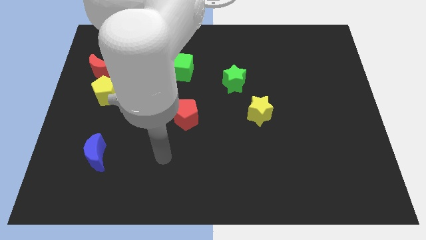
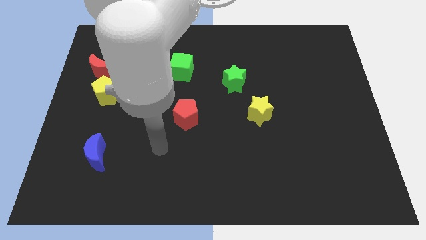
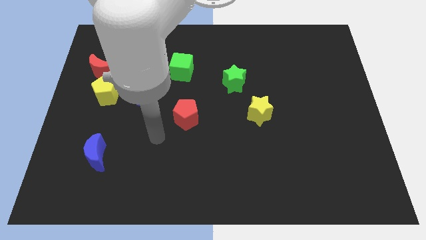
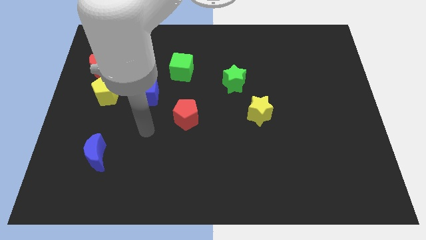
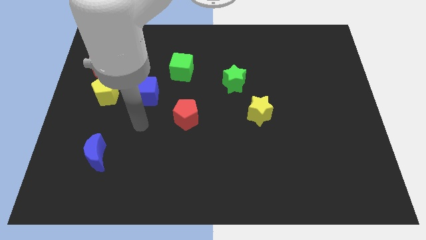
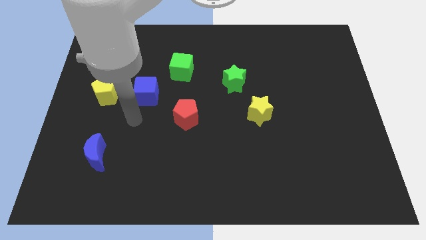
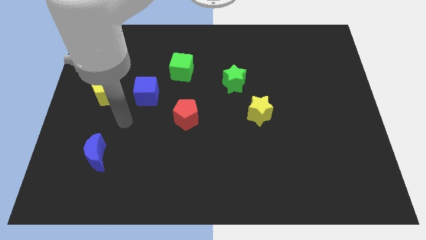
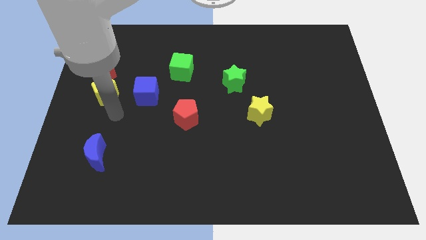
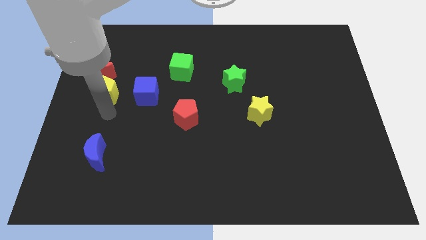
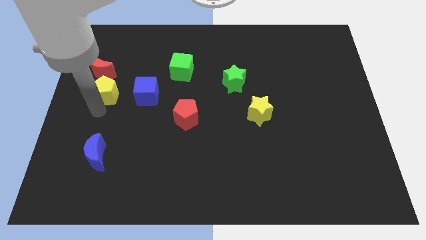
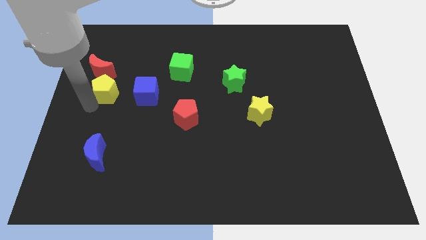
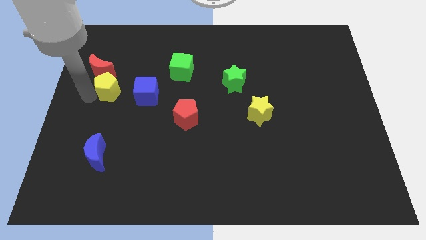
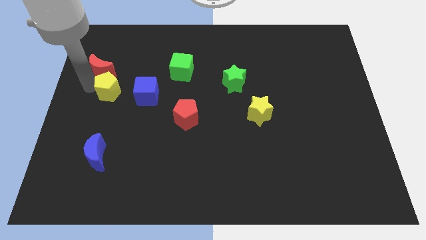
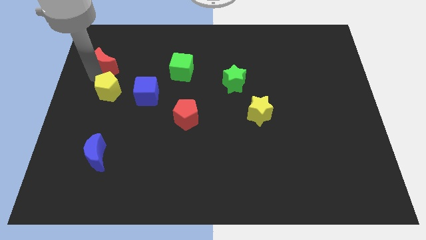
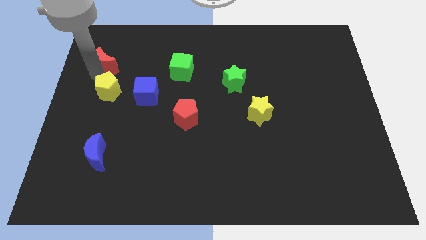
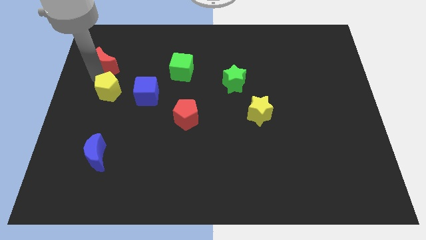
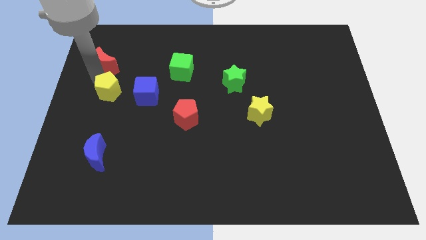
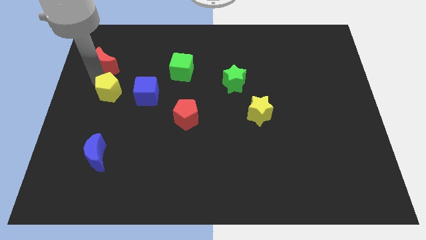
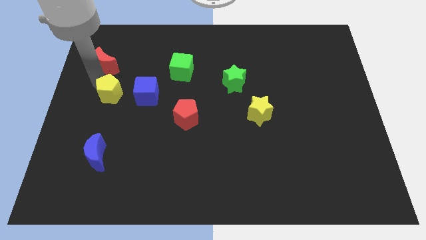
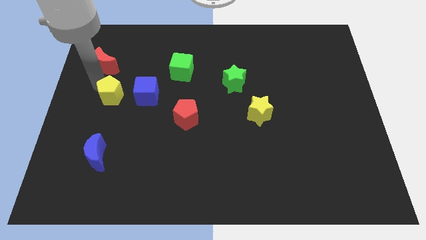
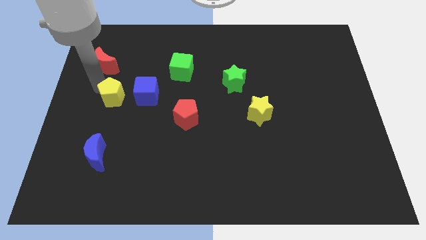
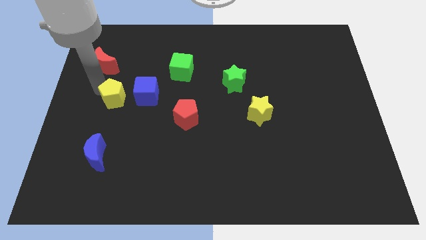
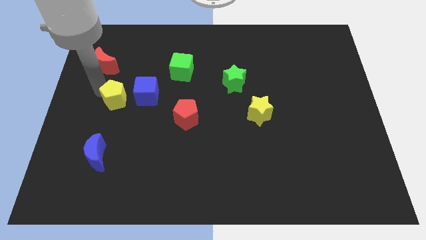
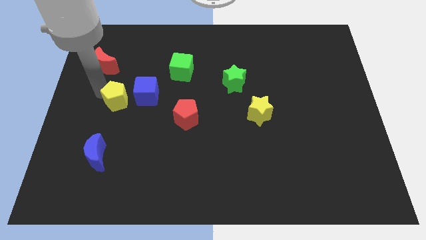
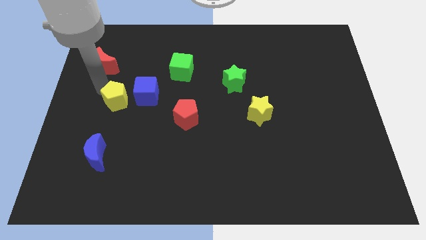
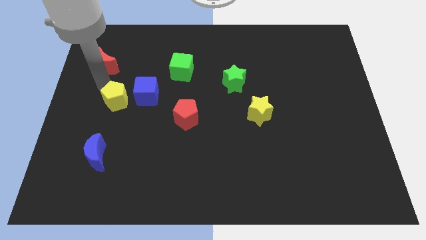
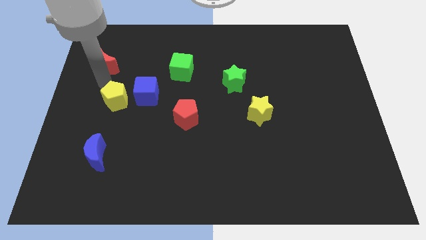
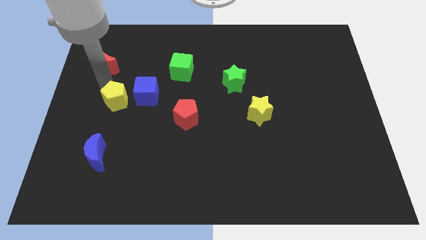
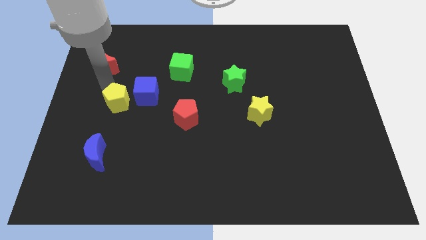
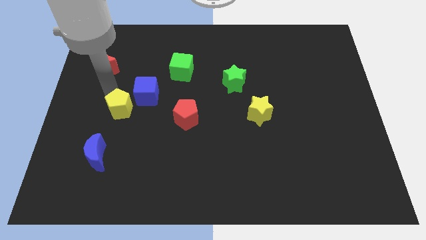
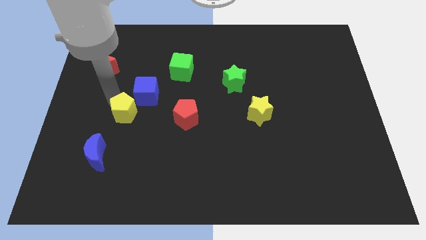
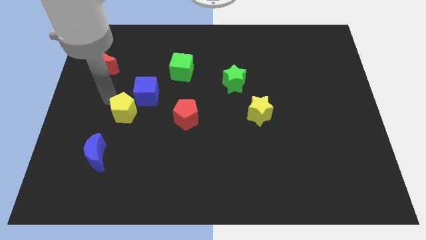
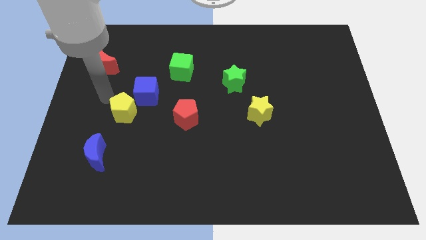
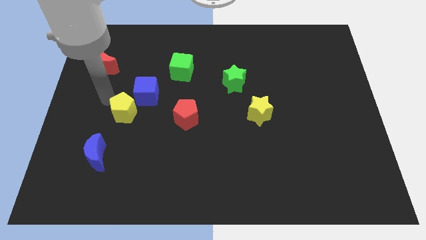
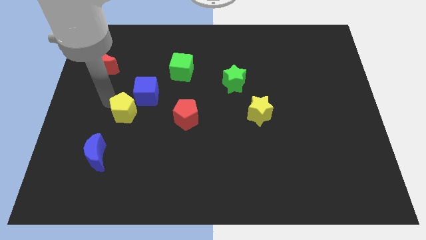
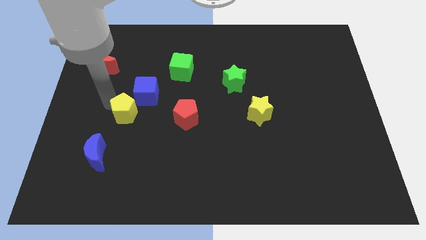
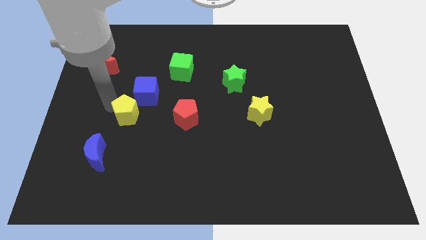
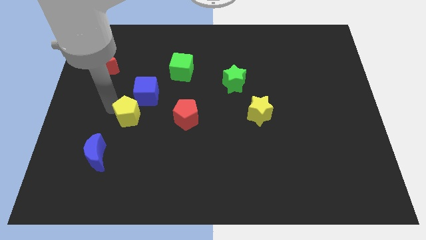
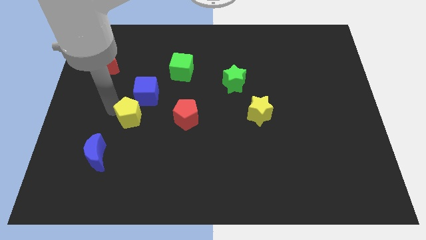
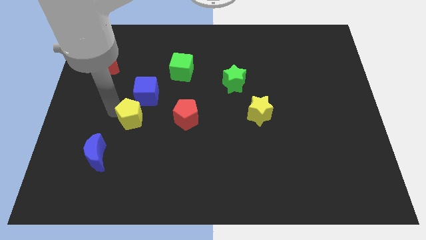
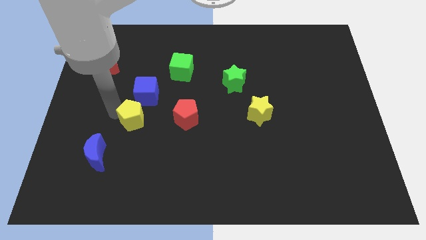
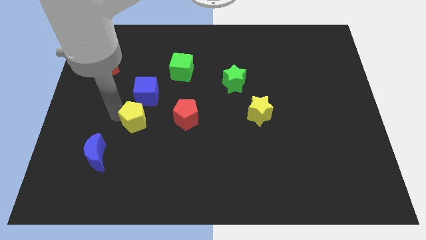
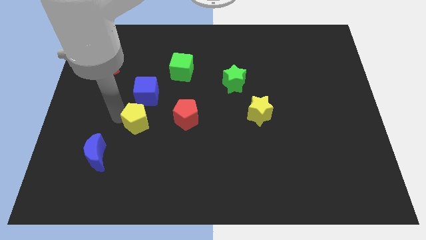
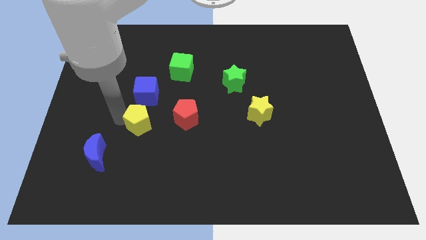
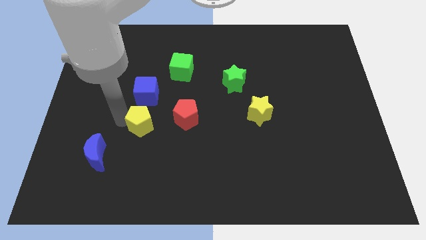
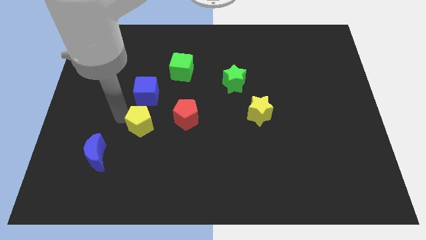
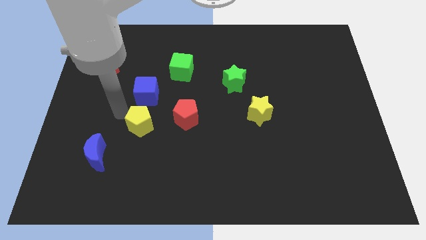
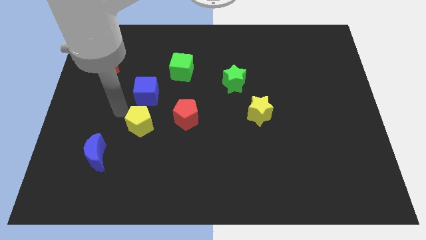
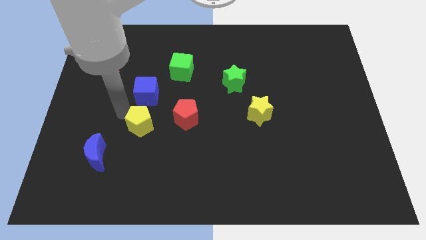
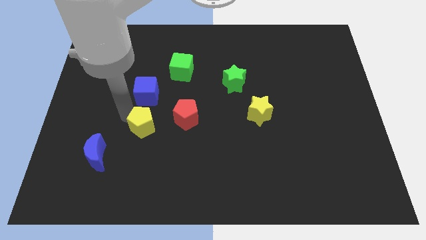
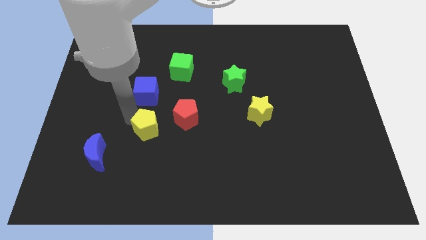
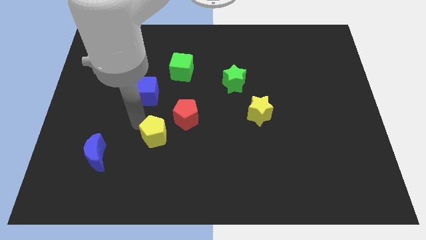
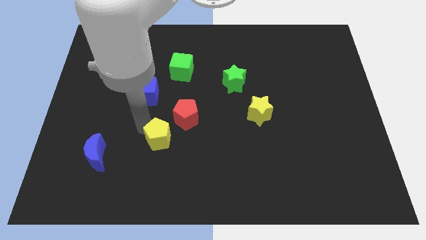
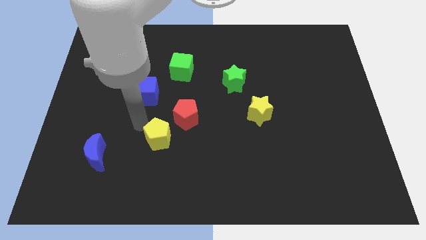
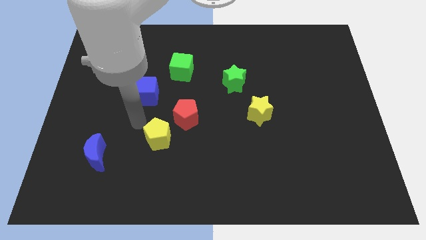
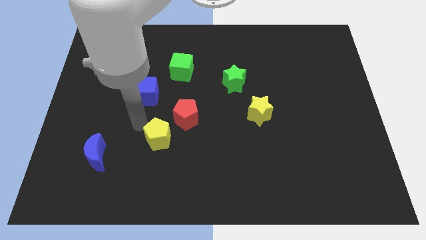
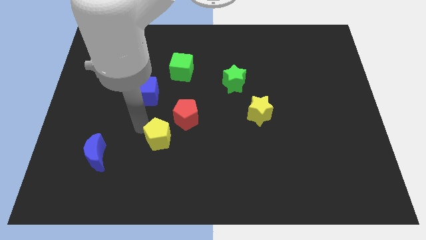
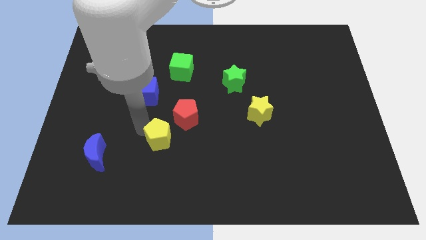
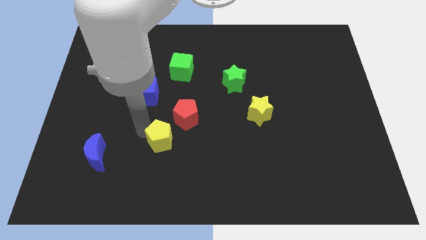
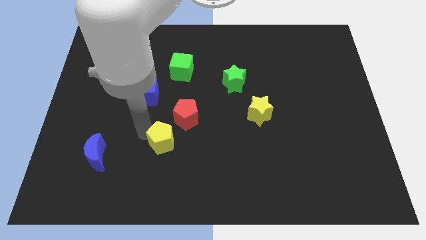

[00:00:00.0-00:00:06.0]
move the yellow pentagon downwards and to the right

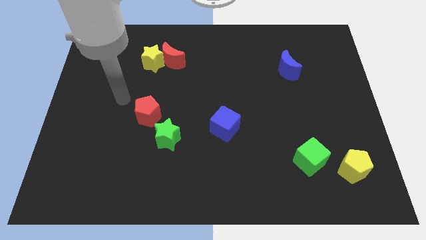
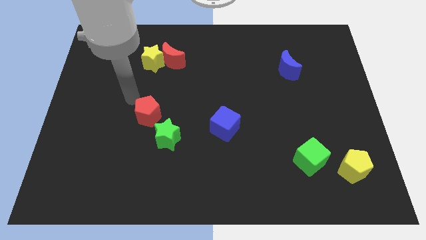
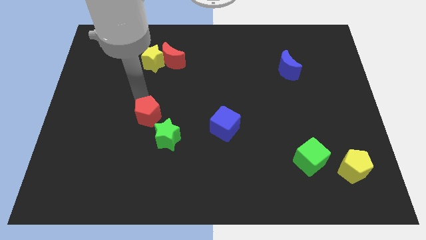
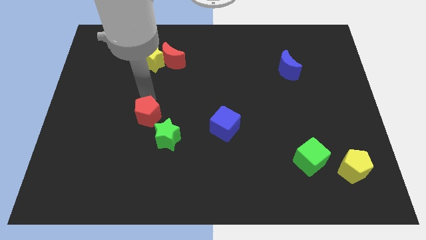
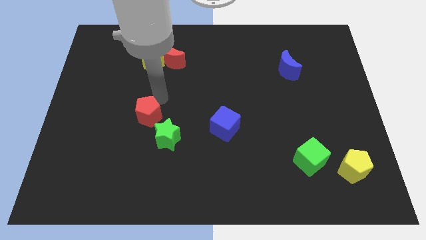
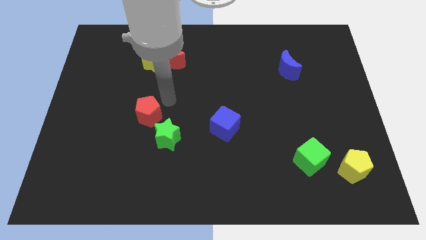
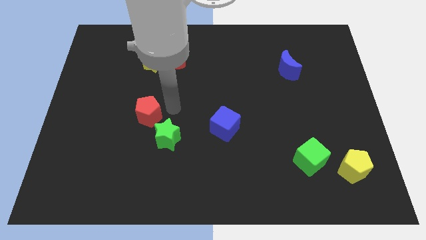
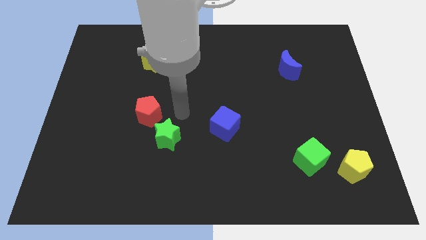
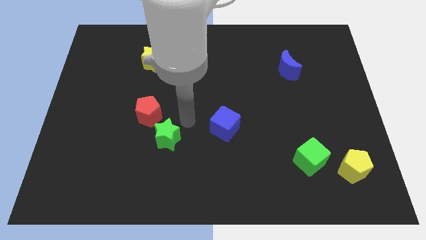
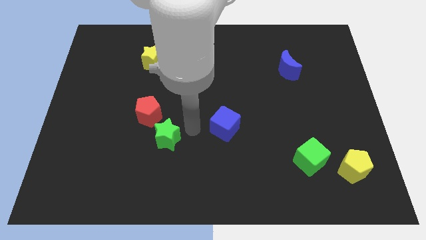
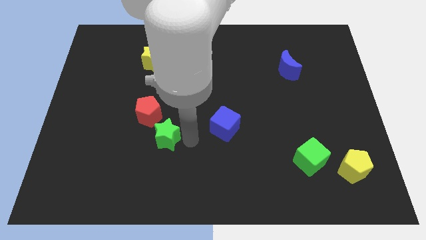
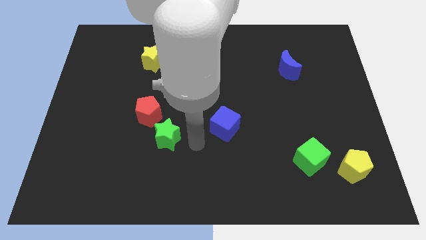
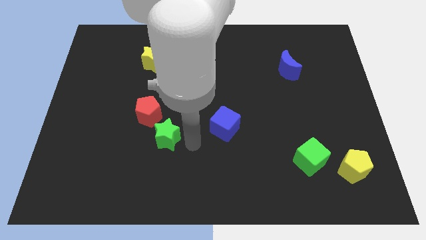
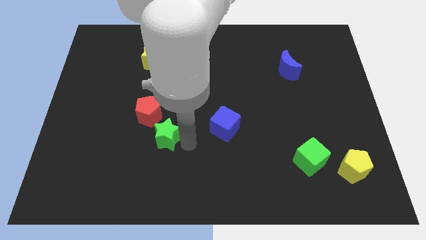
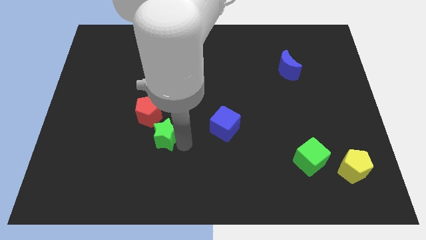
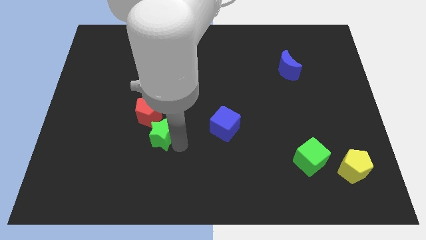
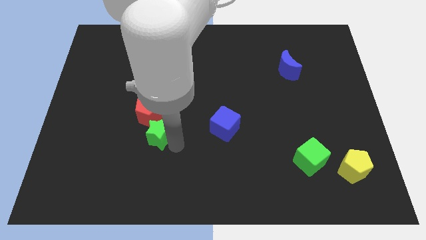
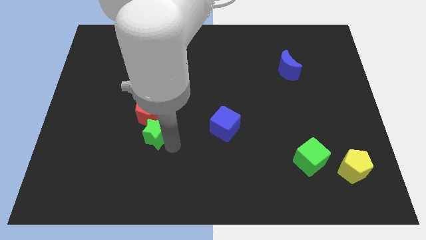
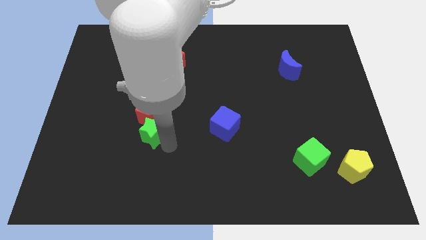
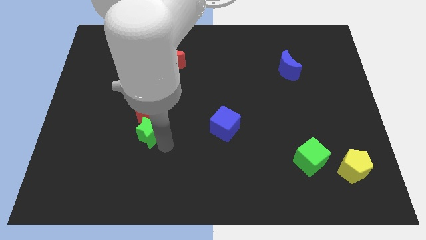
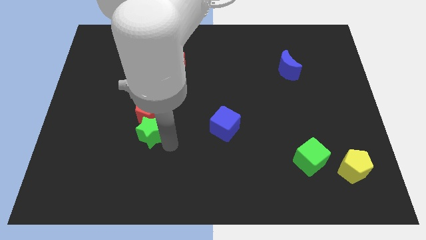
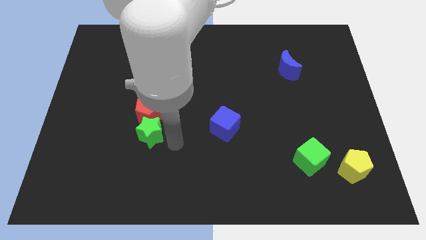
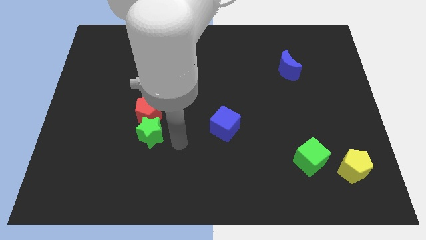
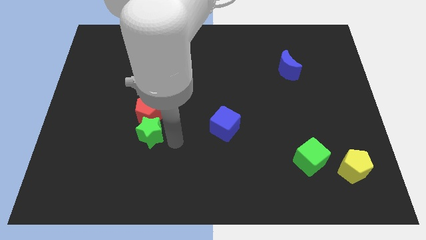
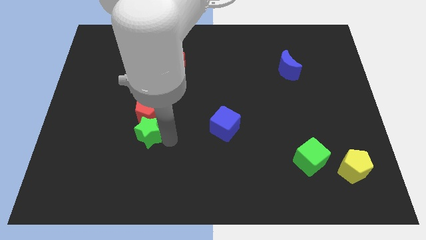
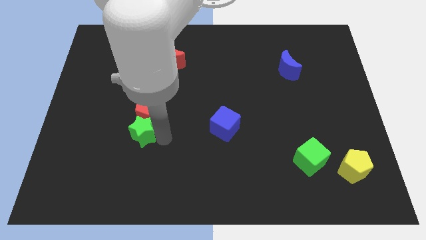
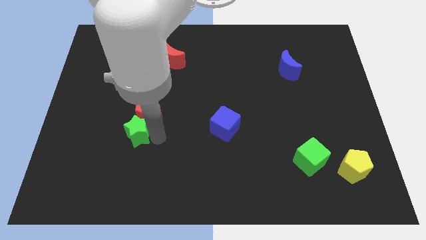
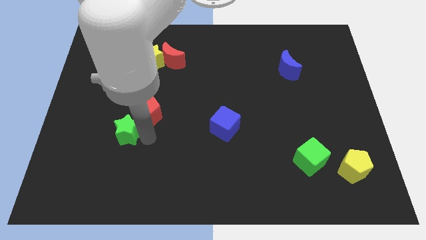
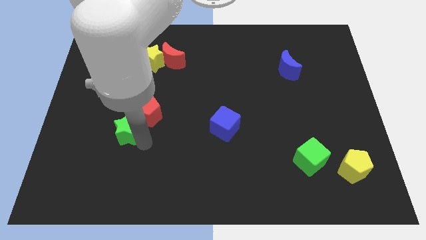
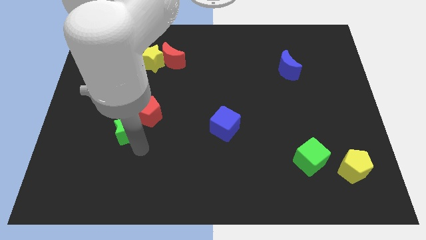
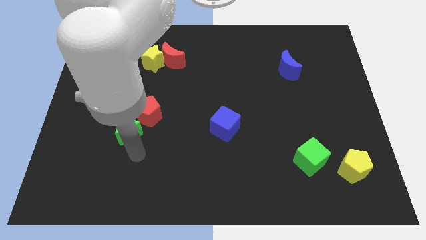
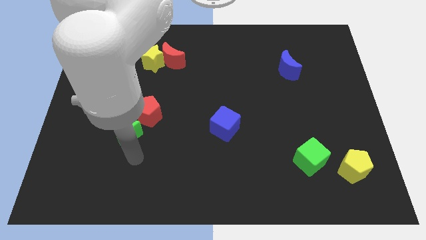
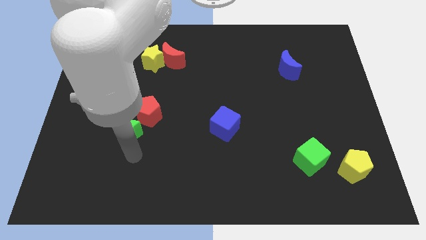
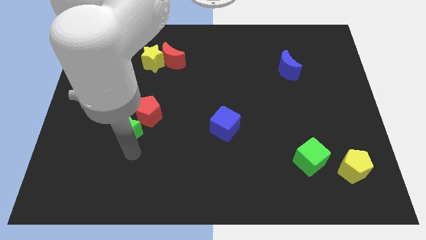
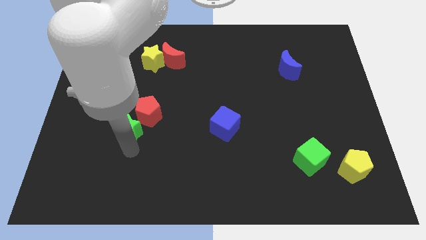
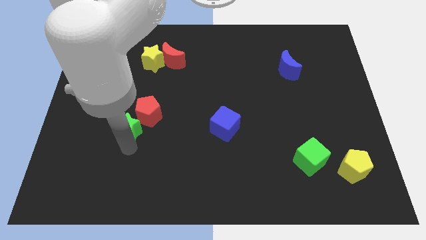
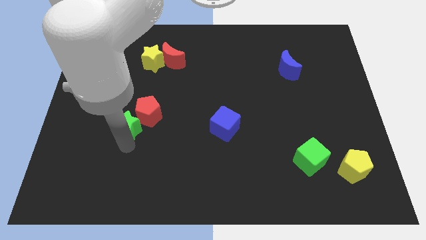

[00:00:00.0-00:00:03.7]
move the green star up and left a little
